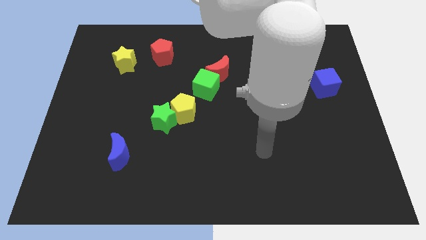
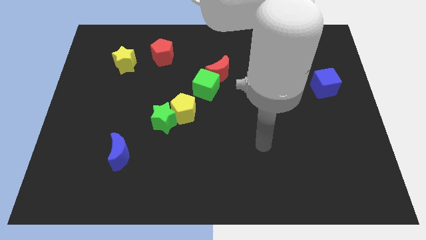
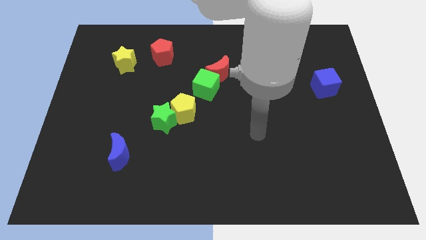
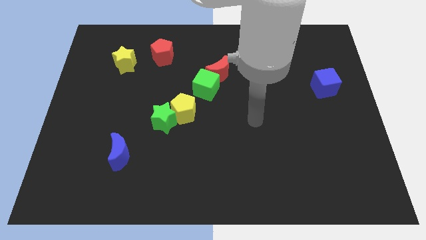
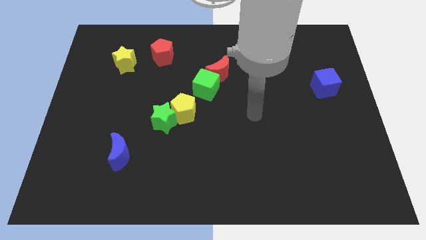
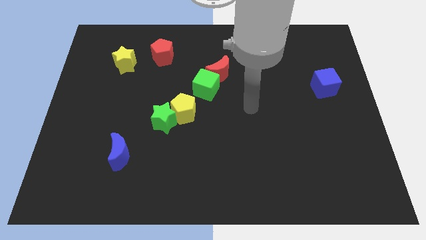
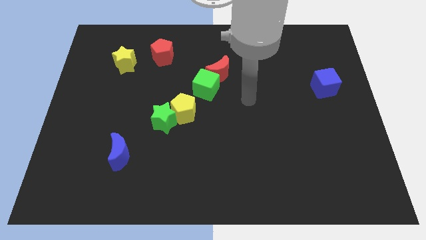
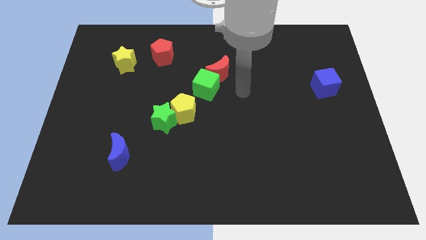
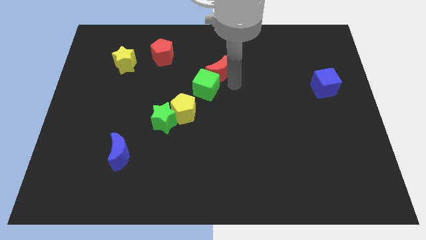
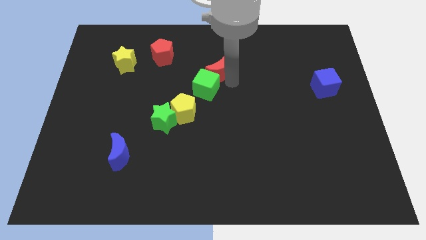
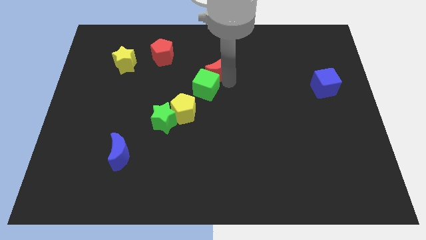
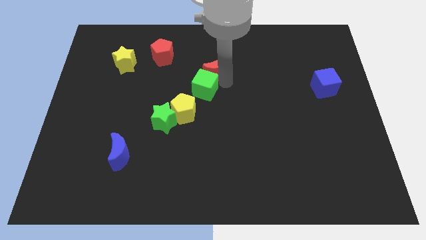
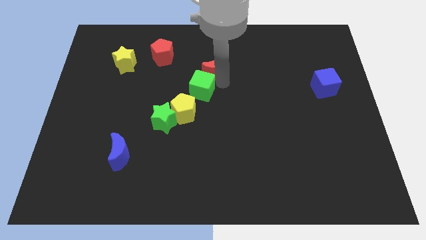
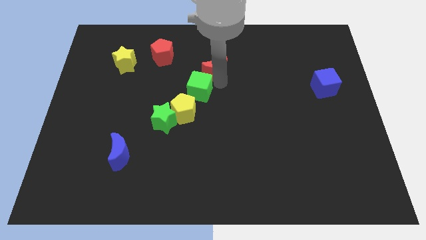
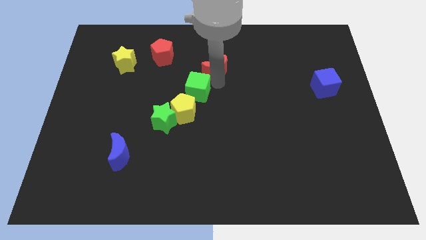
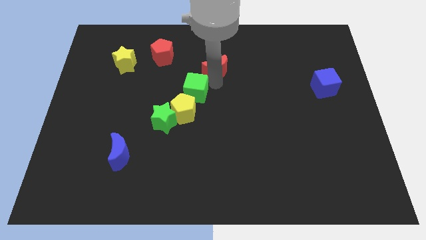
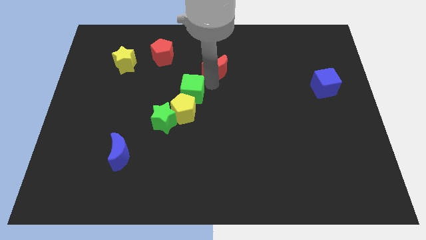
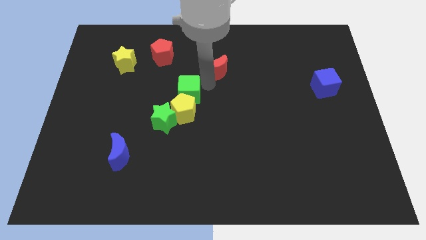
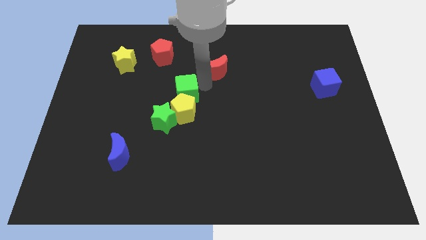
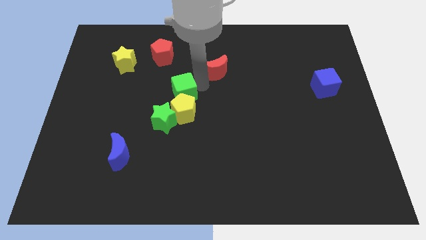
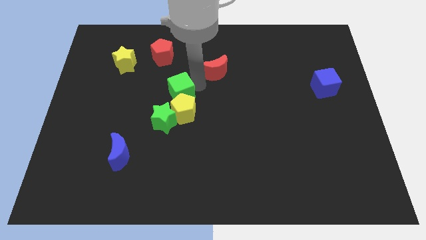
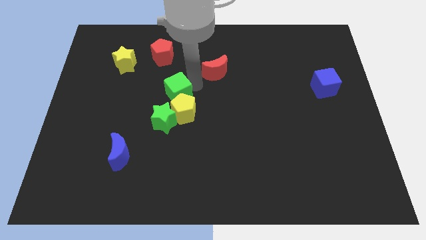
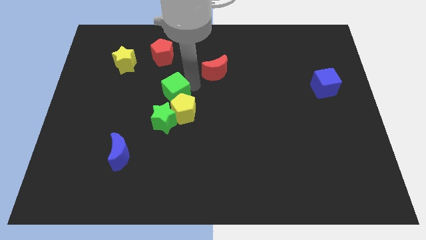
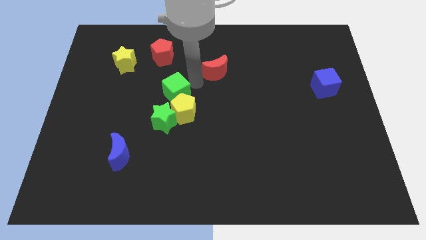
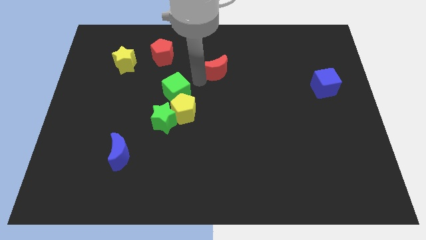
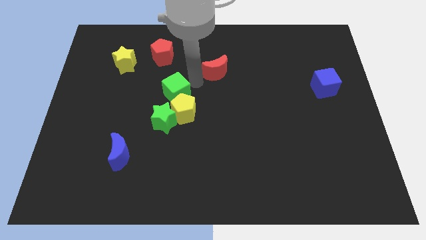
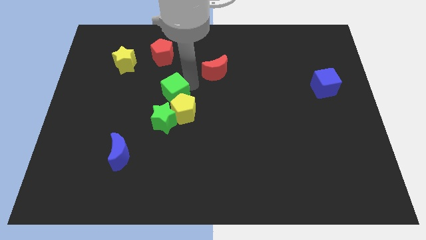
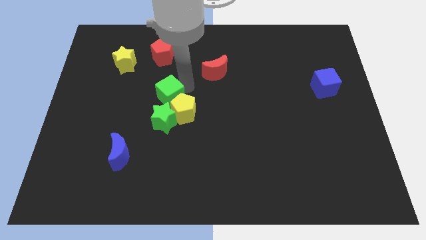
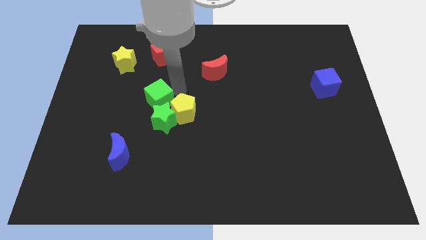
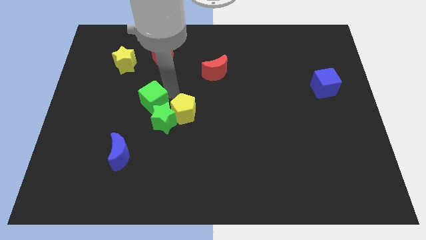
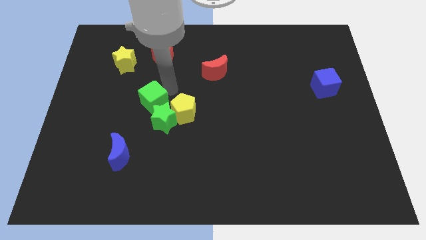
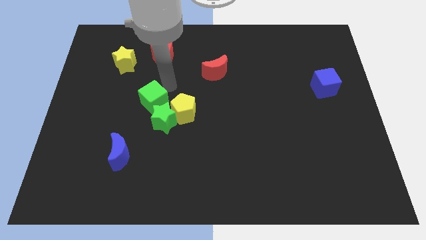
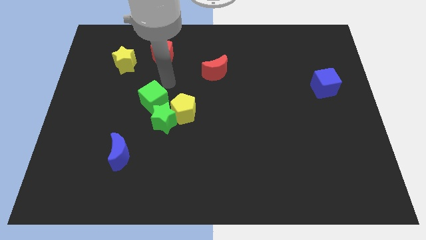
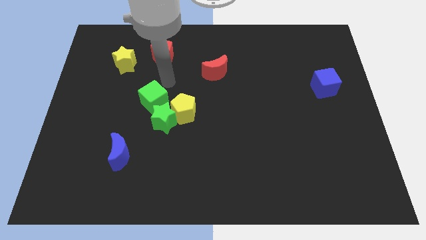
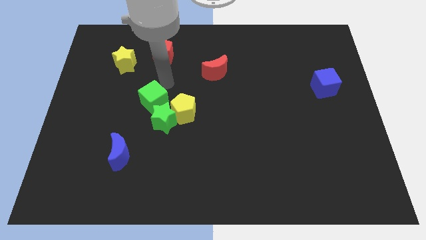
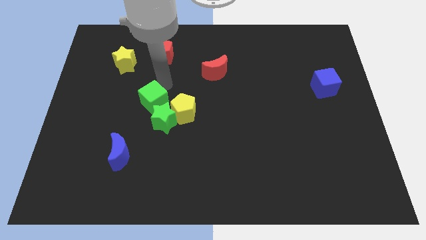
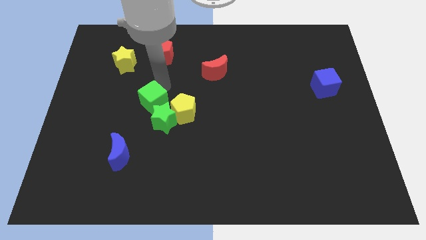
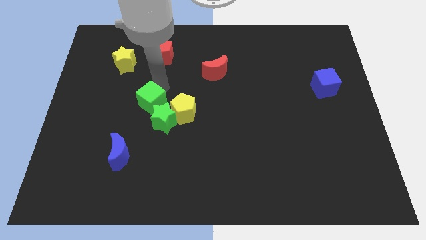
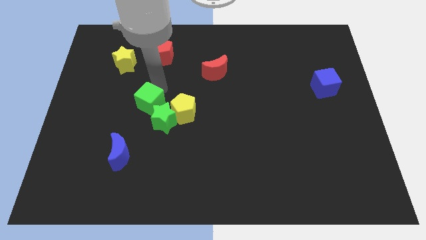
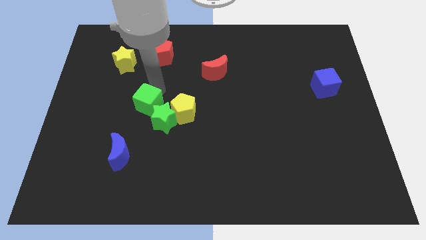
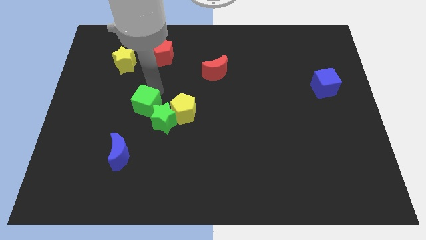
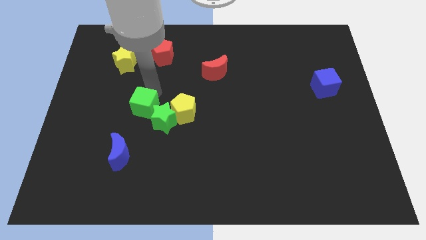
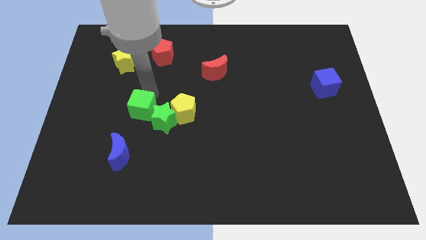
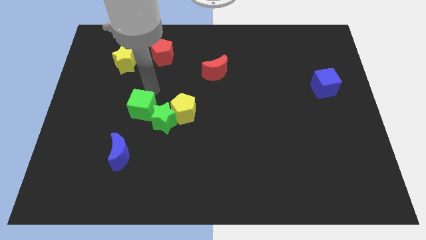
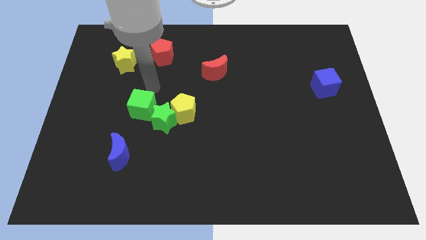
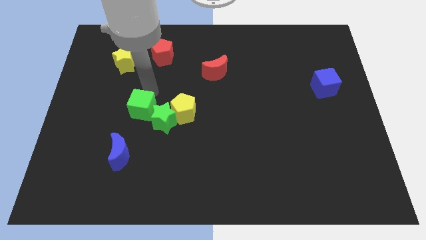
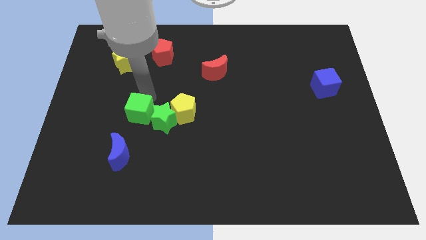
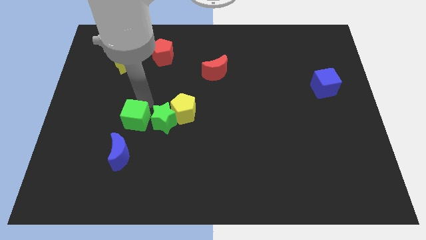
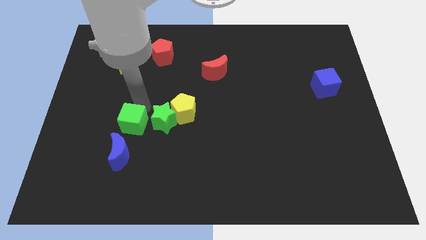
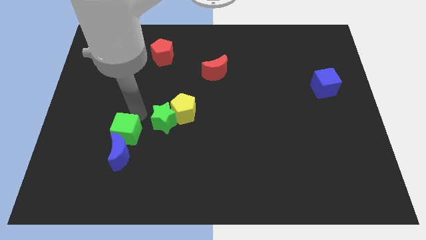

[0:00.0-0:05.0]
put the green cube close to the blue moon

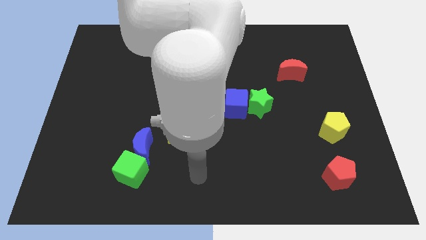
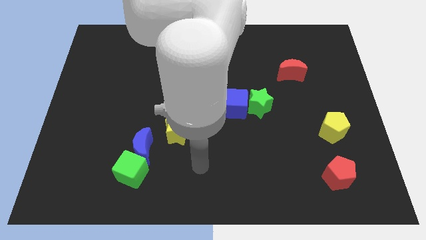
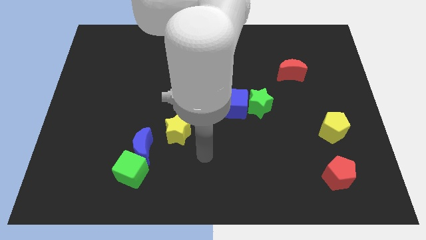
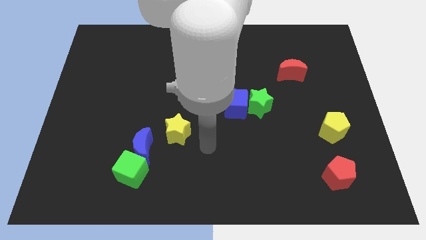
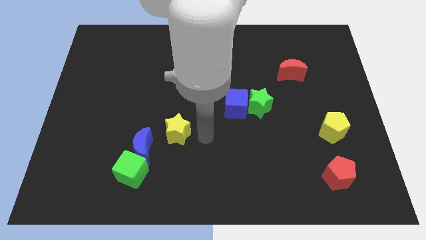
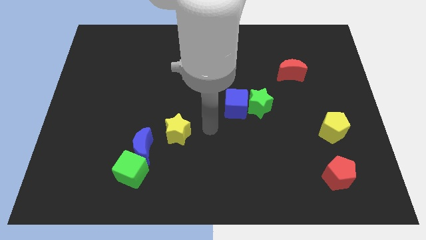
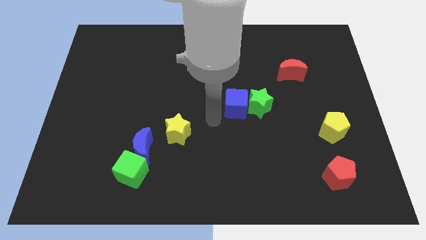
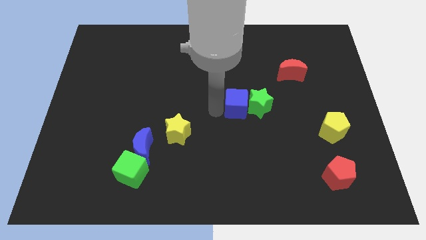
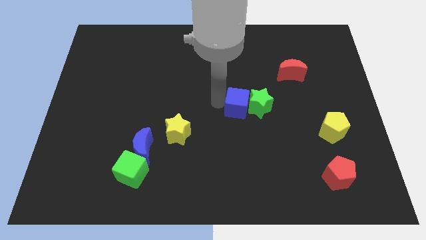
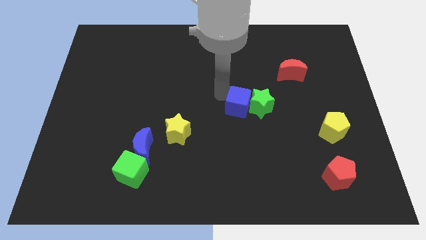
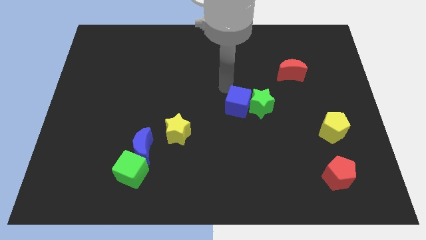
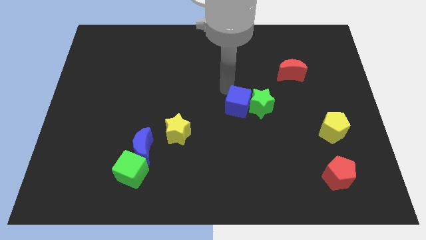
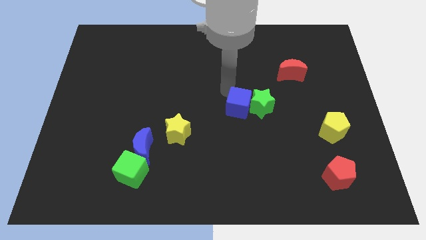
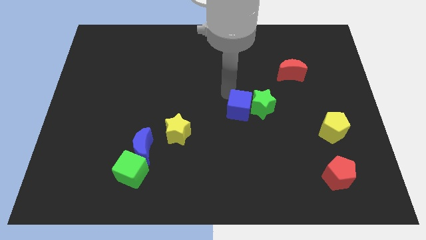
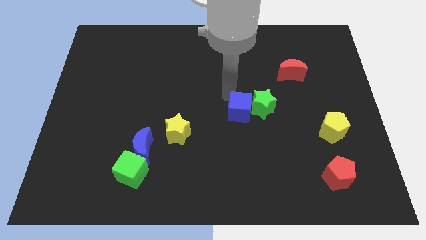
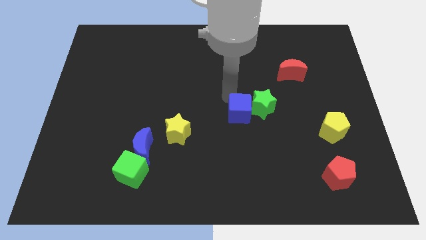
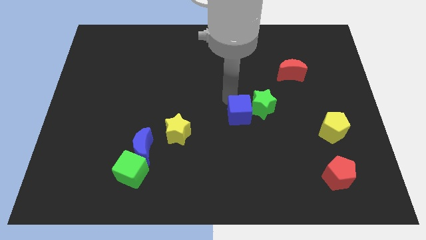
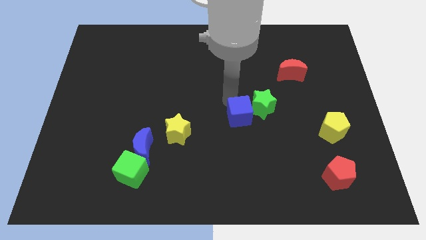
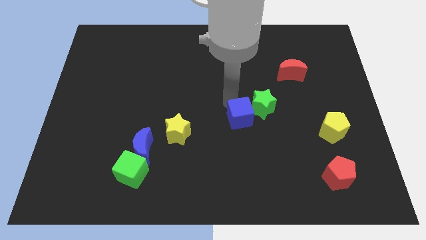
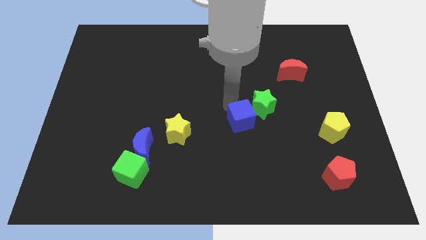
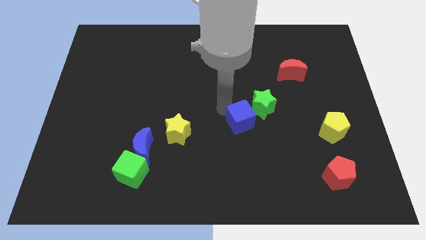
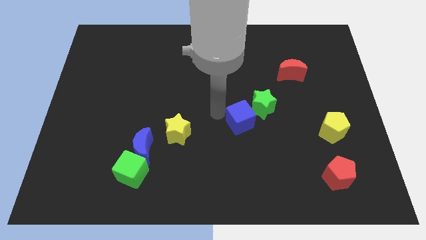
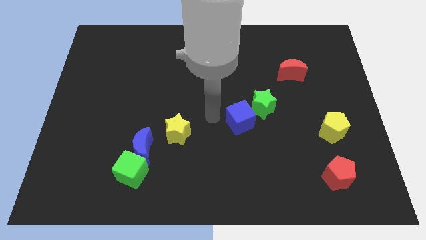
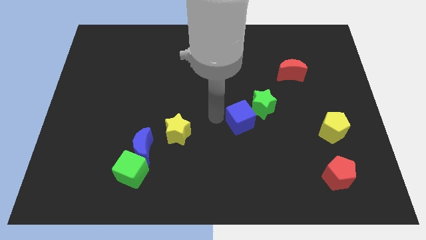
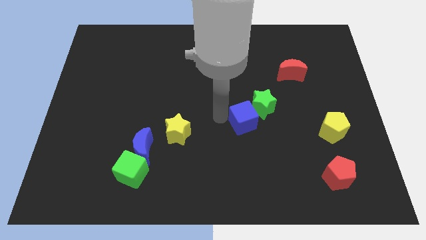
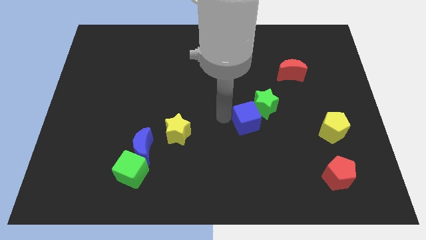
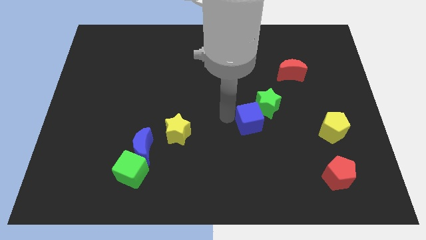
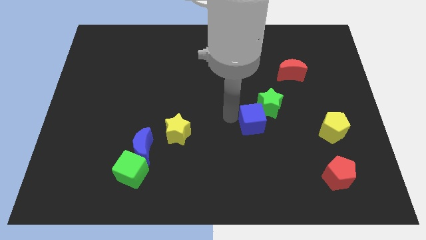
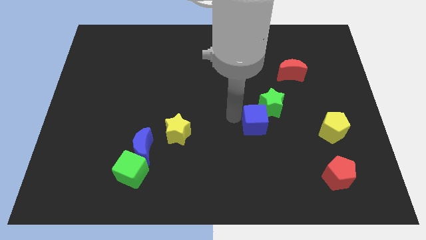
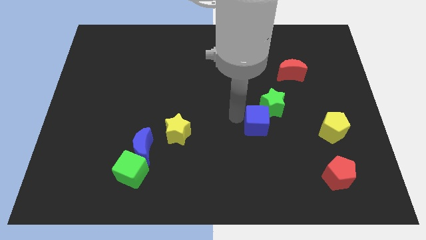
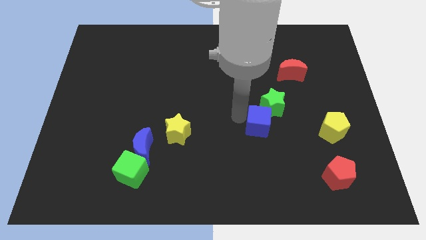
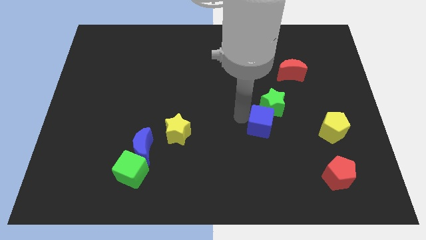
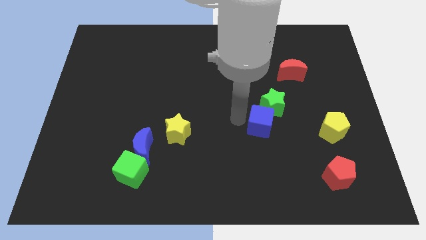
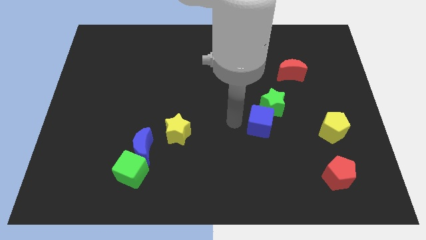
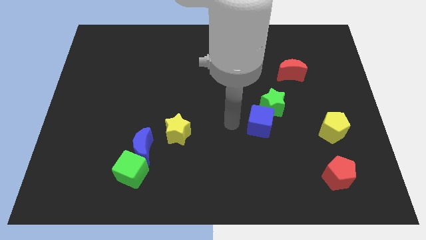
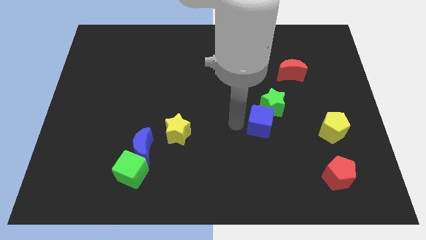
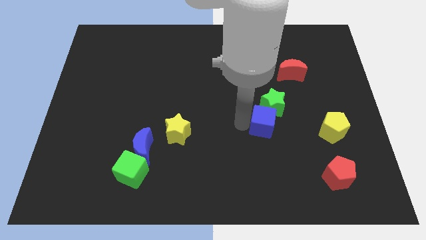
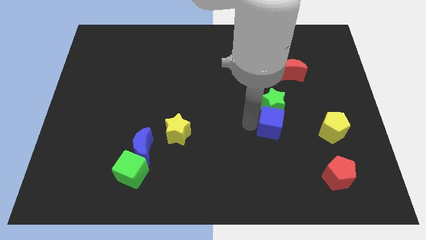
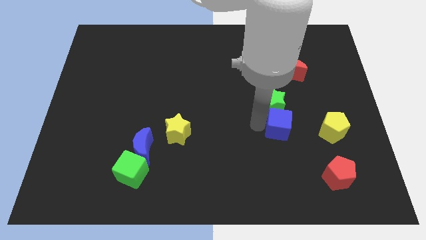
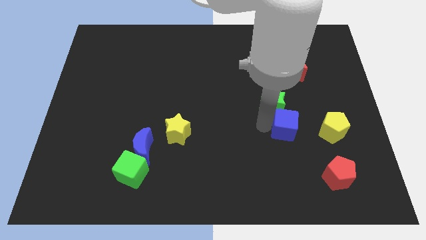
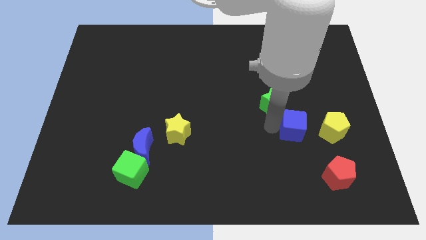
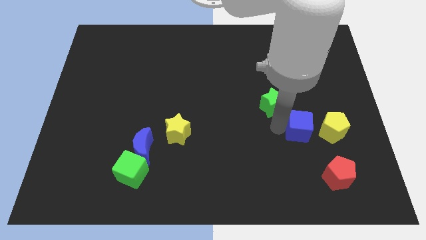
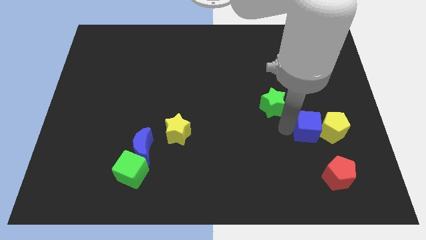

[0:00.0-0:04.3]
put the blue cube next to the yellow pentagon
